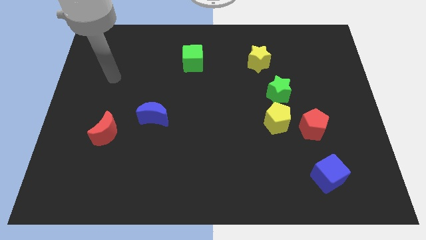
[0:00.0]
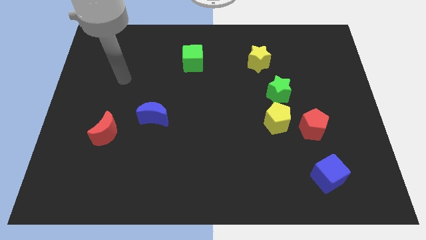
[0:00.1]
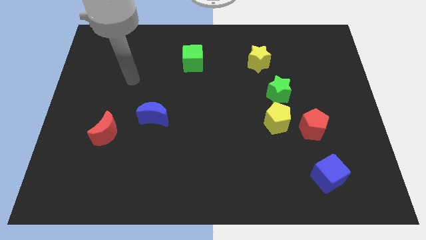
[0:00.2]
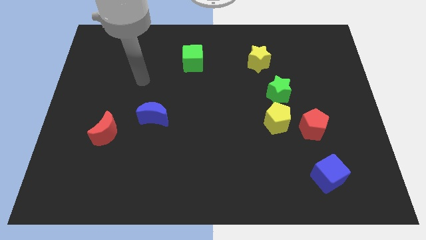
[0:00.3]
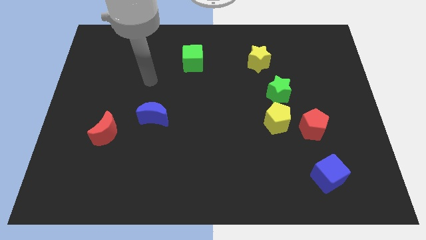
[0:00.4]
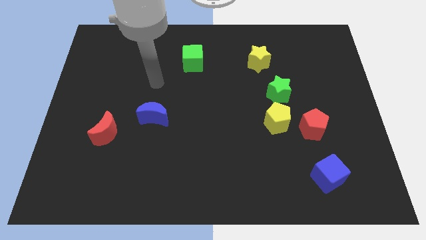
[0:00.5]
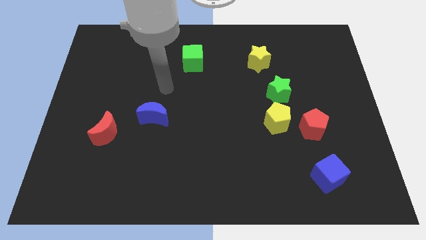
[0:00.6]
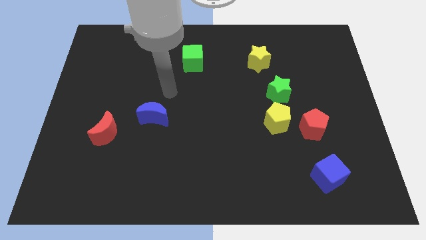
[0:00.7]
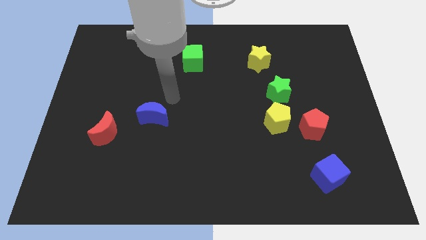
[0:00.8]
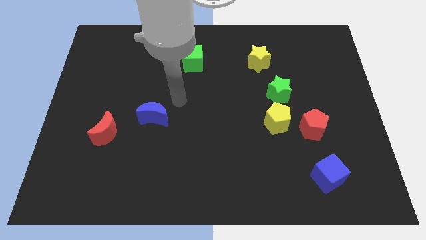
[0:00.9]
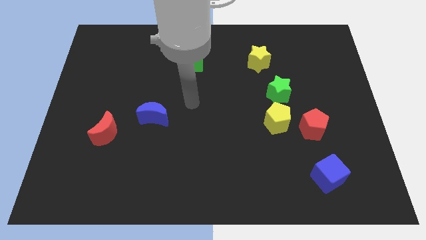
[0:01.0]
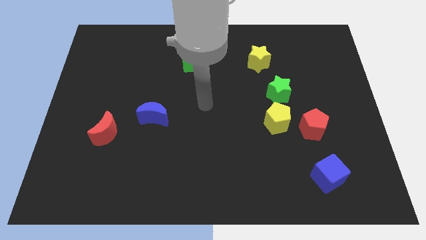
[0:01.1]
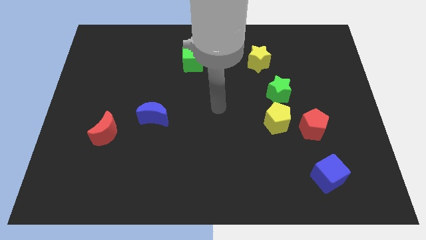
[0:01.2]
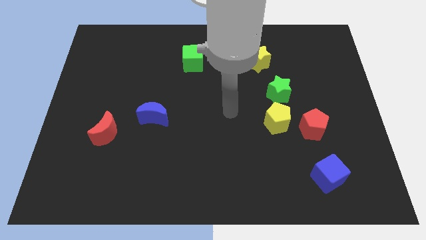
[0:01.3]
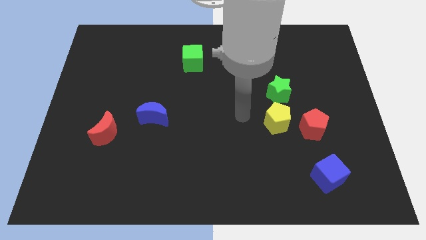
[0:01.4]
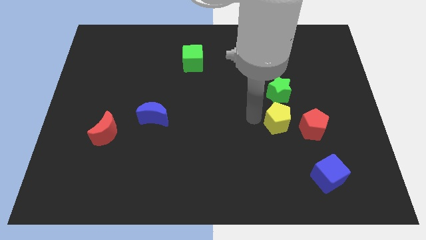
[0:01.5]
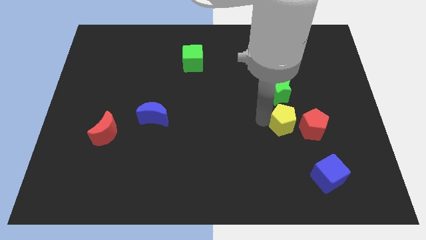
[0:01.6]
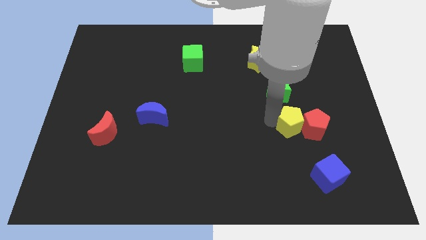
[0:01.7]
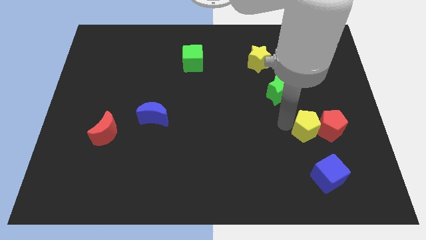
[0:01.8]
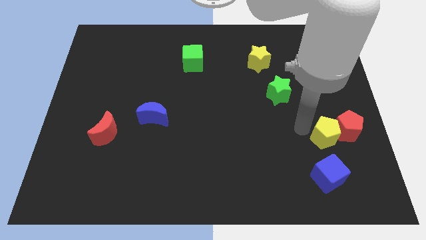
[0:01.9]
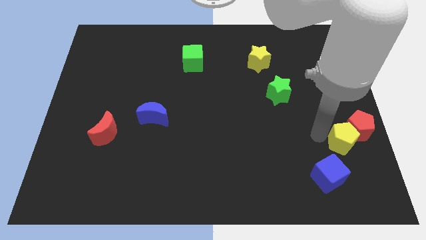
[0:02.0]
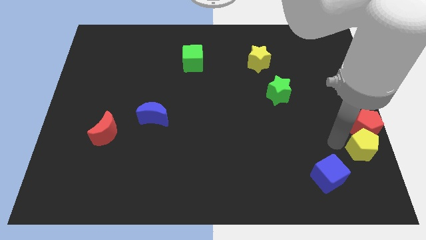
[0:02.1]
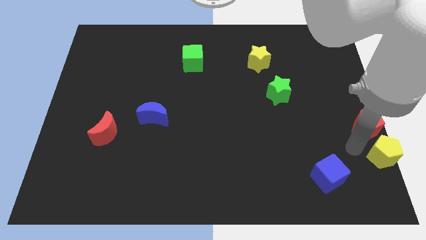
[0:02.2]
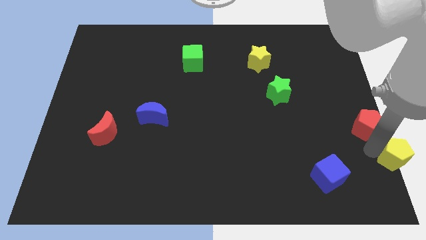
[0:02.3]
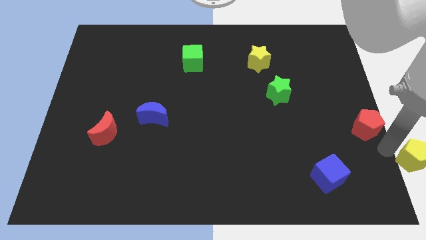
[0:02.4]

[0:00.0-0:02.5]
pull the red pentagon apart from the yellow pentagon

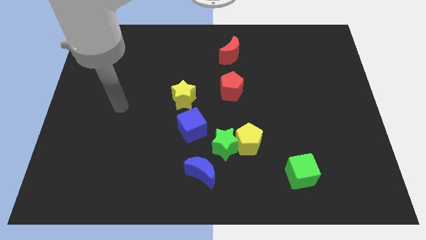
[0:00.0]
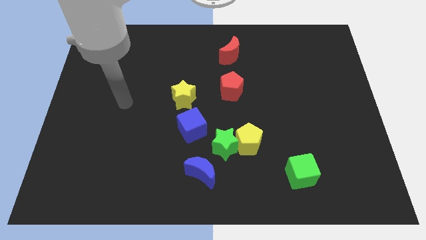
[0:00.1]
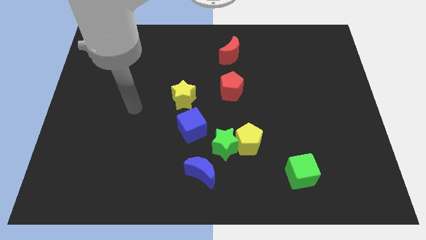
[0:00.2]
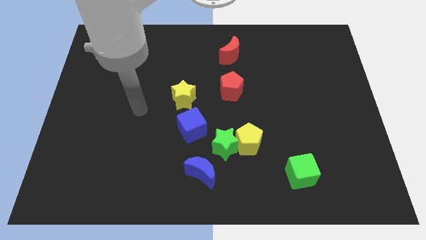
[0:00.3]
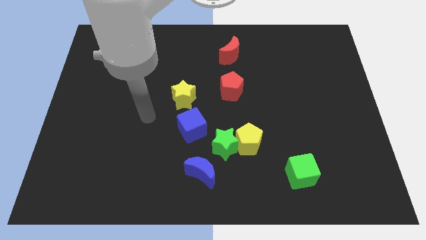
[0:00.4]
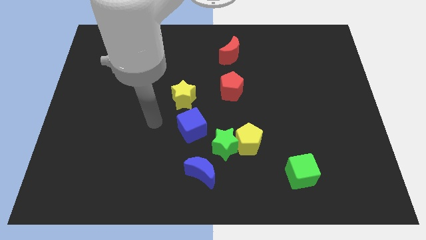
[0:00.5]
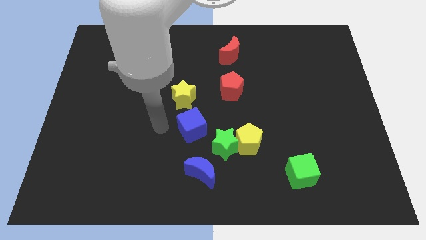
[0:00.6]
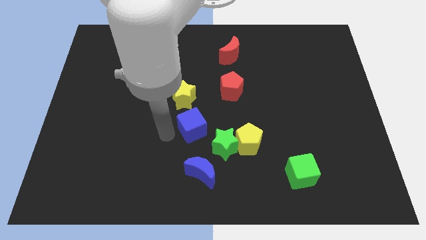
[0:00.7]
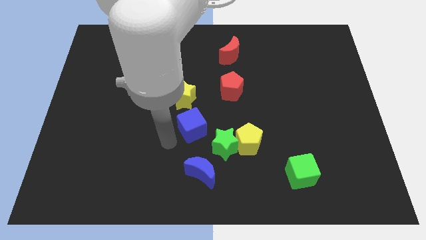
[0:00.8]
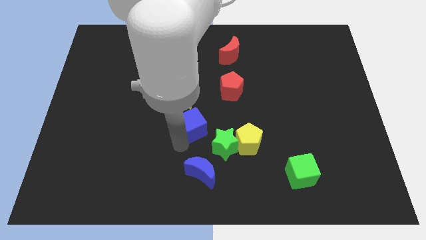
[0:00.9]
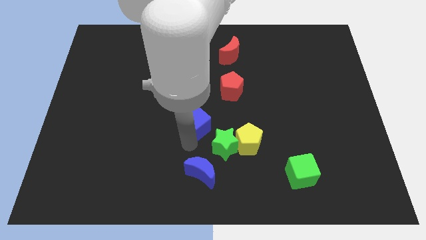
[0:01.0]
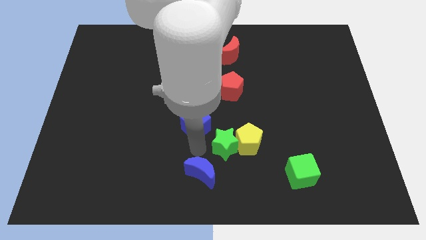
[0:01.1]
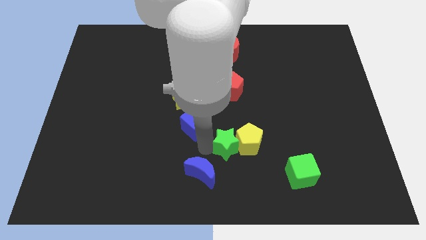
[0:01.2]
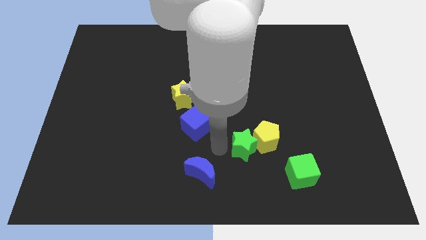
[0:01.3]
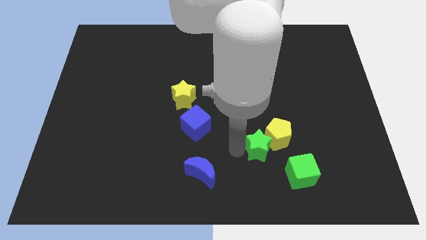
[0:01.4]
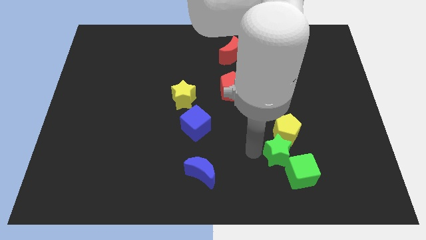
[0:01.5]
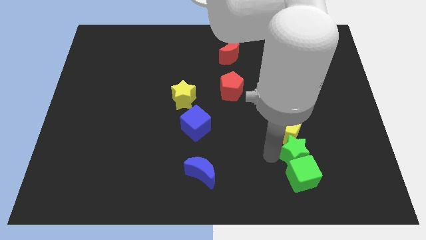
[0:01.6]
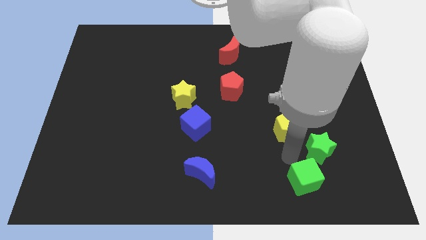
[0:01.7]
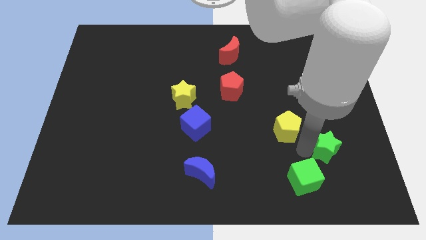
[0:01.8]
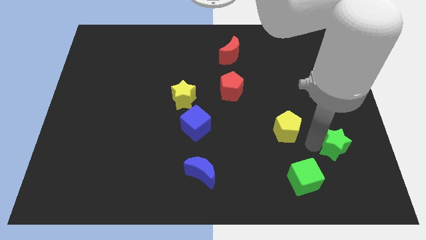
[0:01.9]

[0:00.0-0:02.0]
pull the yellow pentagon apart from the green star

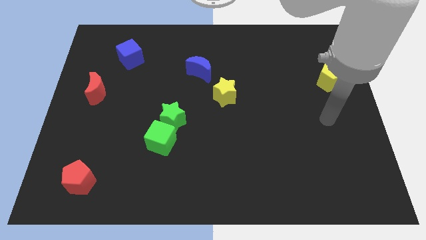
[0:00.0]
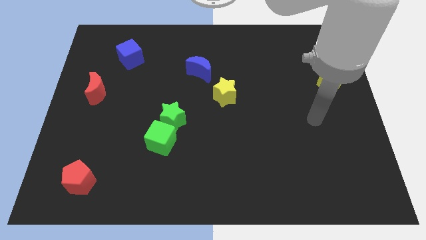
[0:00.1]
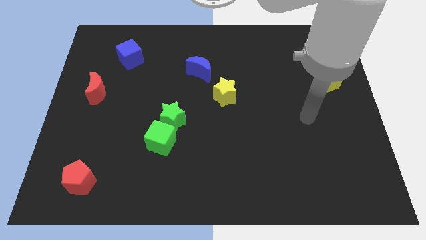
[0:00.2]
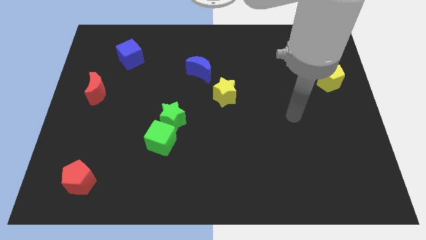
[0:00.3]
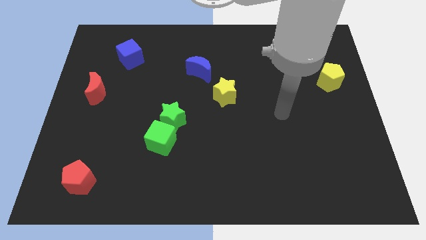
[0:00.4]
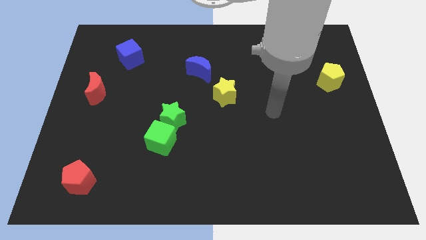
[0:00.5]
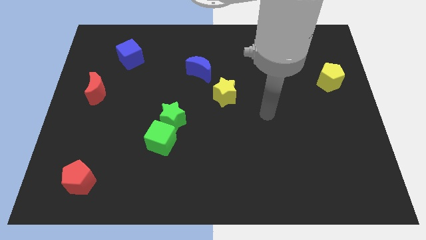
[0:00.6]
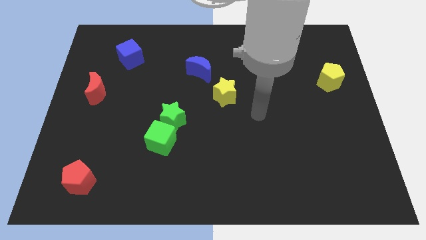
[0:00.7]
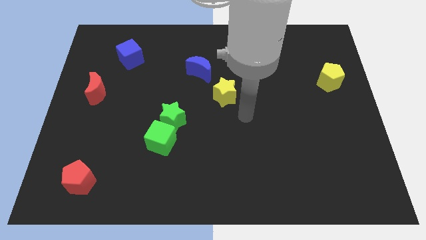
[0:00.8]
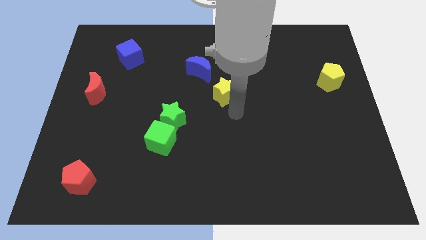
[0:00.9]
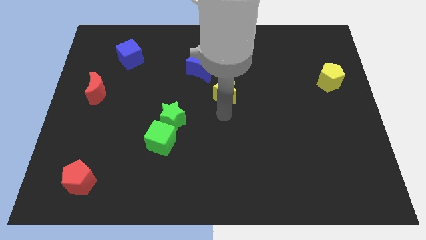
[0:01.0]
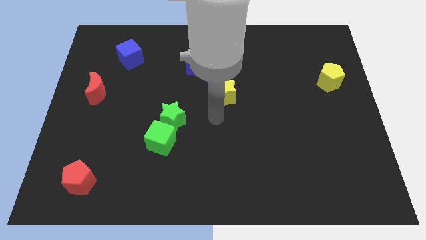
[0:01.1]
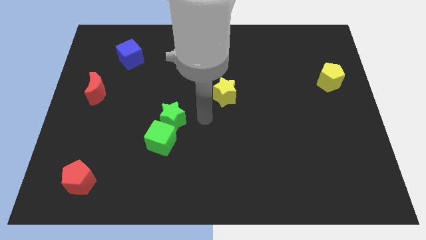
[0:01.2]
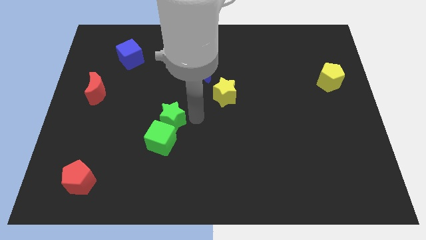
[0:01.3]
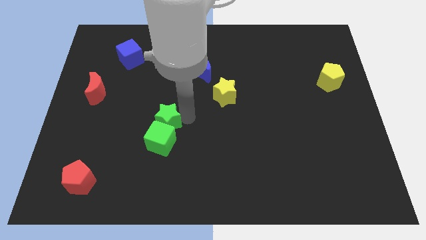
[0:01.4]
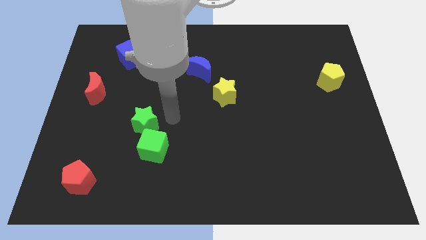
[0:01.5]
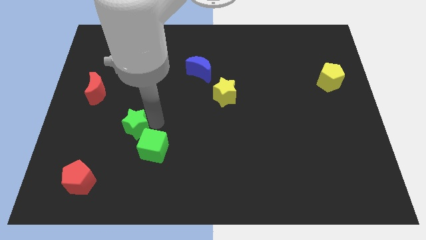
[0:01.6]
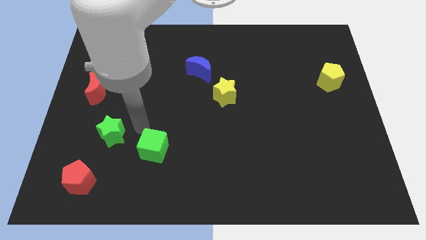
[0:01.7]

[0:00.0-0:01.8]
pull the green cube apart from the green star

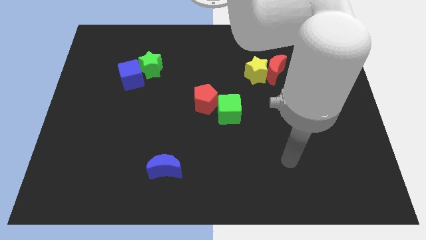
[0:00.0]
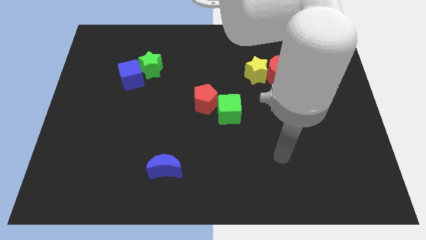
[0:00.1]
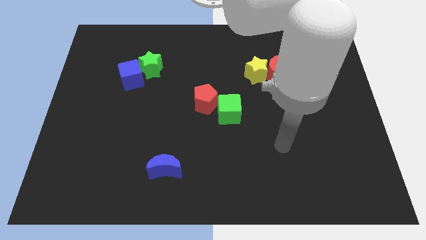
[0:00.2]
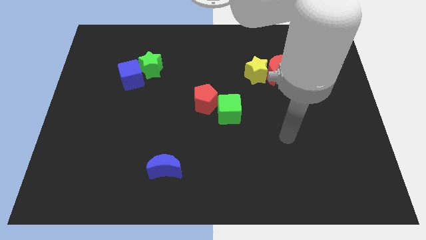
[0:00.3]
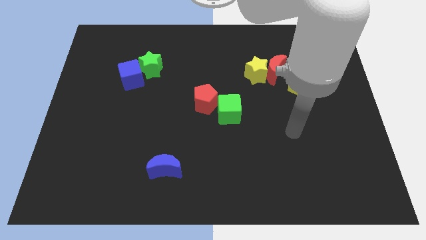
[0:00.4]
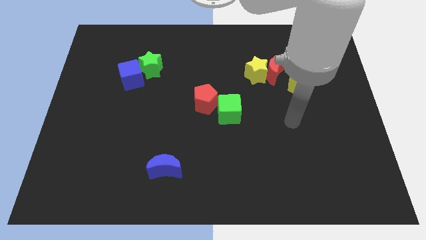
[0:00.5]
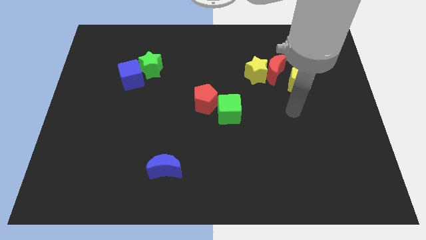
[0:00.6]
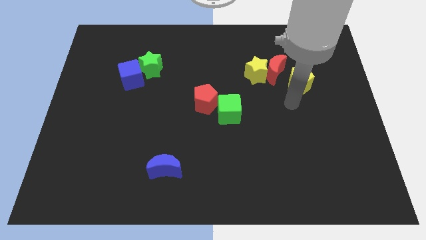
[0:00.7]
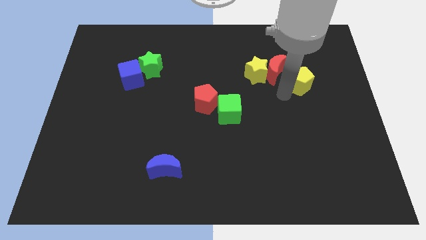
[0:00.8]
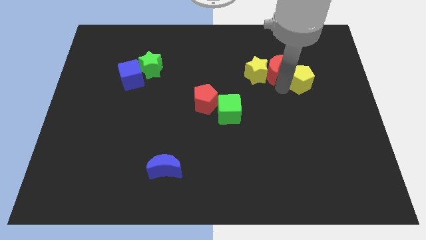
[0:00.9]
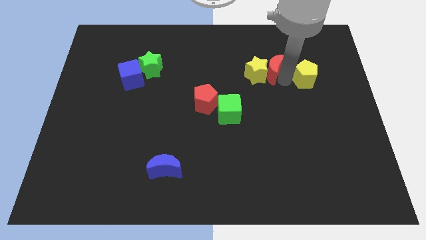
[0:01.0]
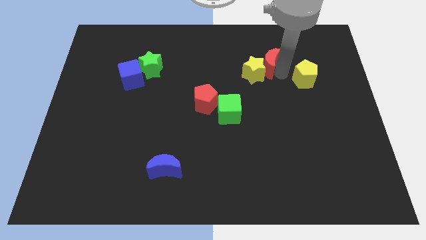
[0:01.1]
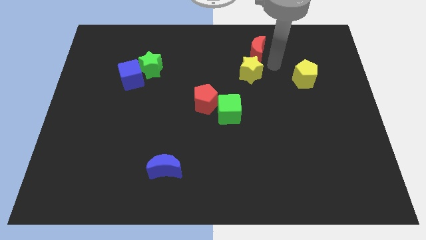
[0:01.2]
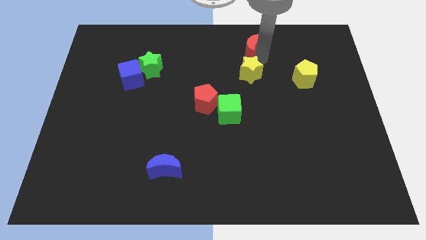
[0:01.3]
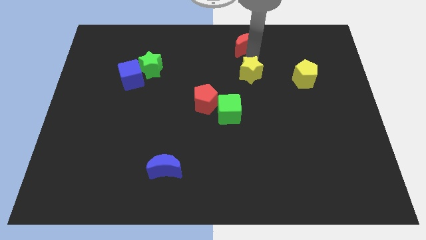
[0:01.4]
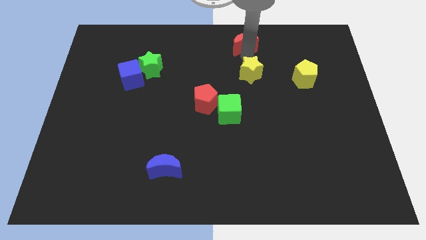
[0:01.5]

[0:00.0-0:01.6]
move the yellow star away from the red moon

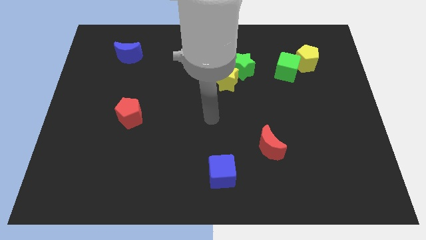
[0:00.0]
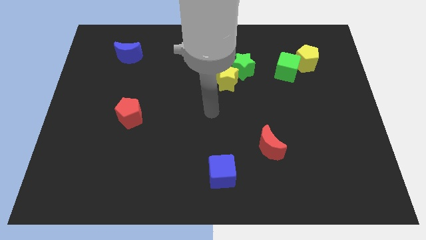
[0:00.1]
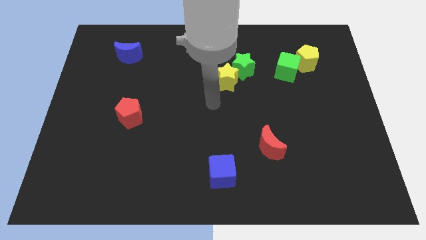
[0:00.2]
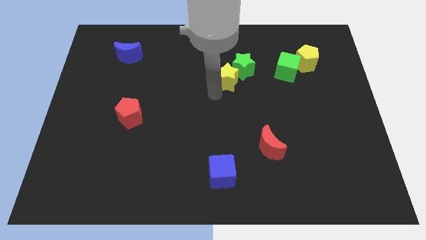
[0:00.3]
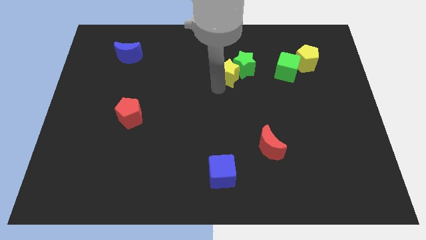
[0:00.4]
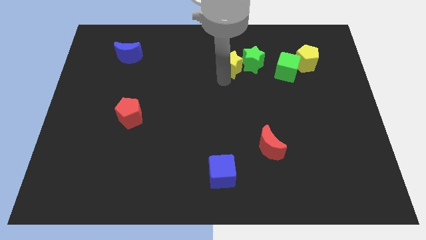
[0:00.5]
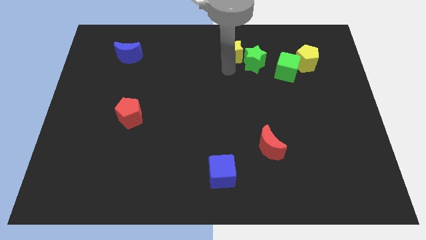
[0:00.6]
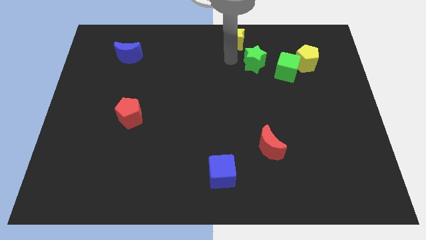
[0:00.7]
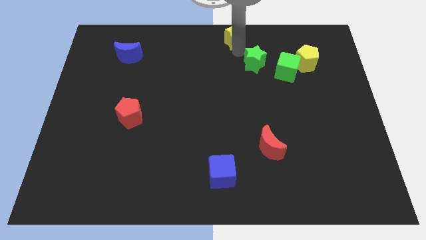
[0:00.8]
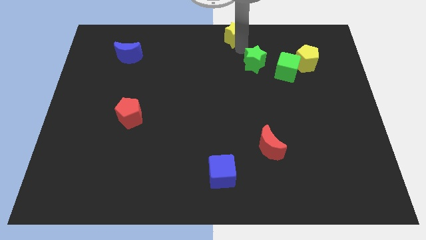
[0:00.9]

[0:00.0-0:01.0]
separate the green star from the yellow star

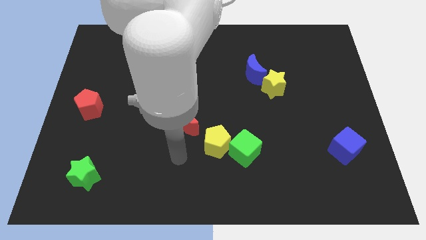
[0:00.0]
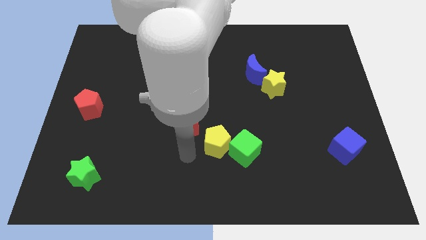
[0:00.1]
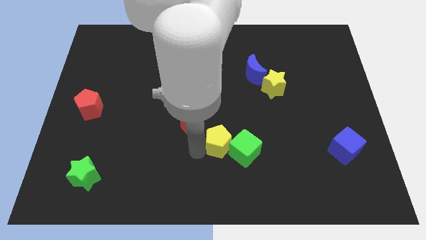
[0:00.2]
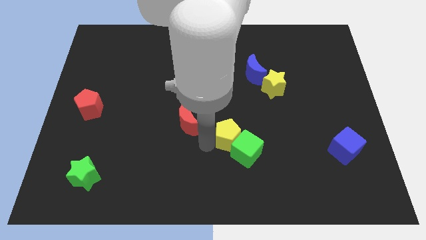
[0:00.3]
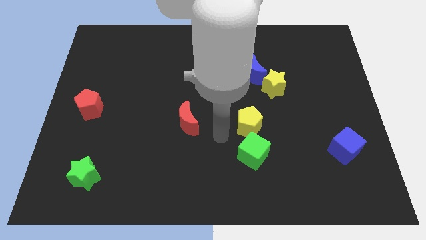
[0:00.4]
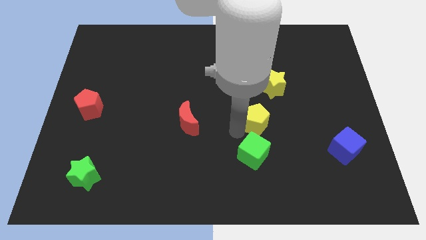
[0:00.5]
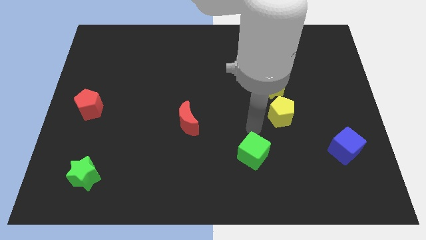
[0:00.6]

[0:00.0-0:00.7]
pull the green cube apart from the yellow pentagon
